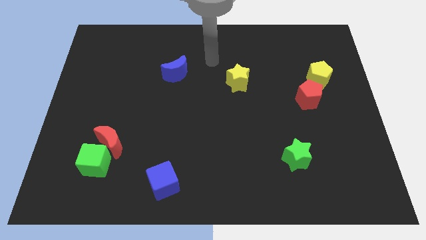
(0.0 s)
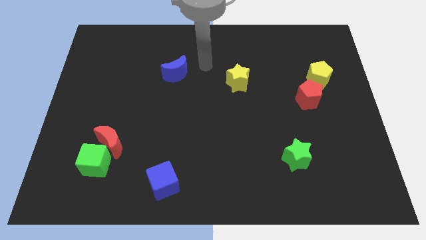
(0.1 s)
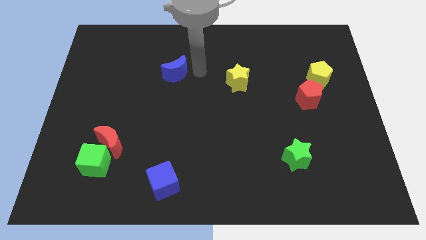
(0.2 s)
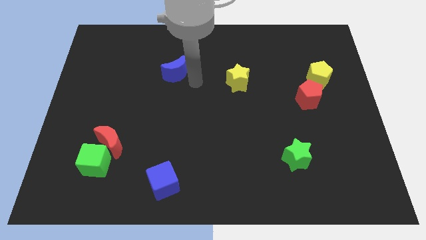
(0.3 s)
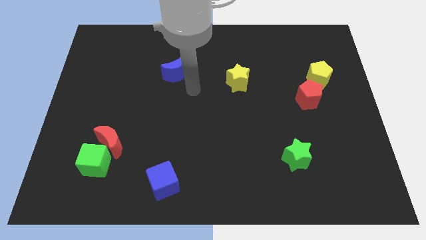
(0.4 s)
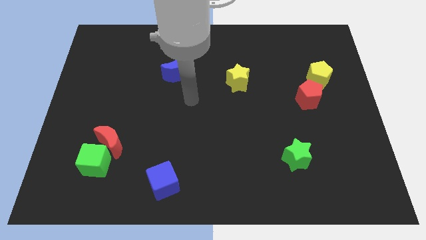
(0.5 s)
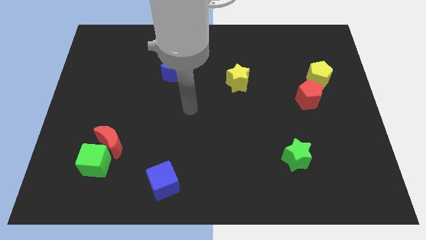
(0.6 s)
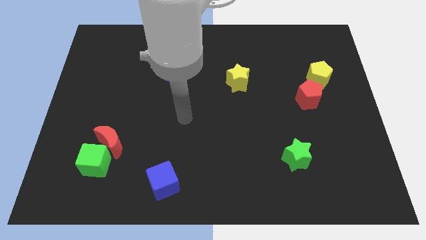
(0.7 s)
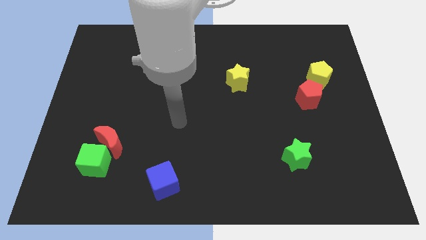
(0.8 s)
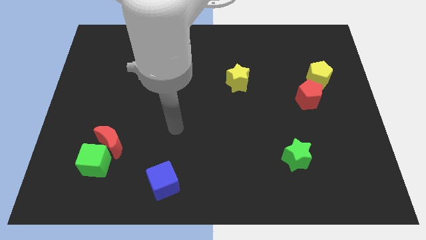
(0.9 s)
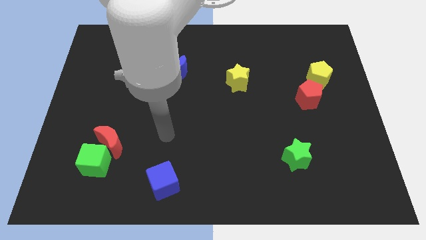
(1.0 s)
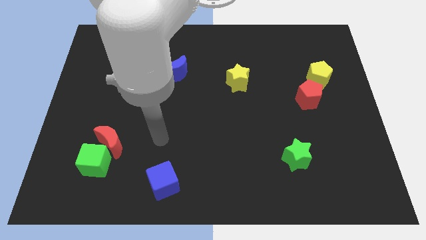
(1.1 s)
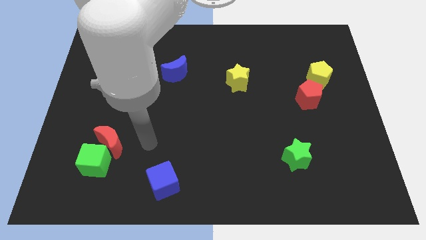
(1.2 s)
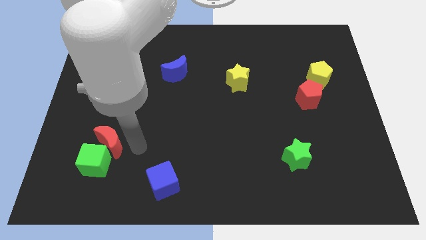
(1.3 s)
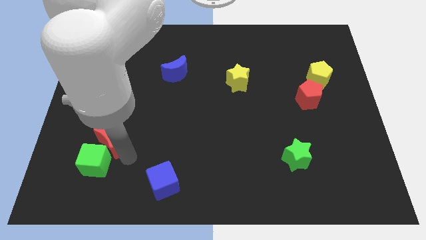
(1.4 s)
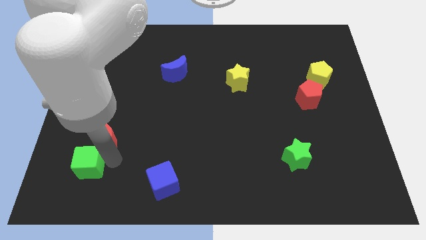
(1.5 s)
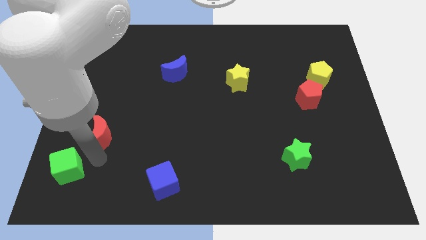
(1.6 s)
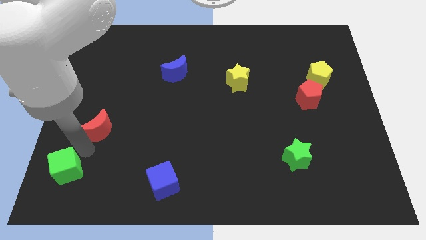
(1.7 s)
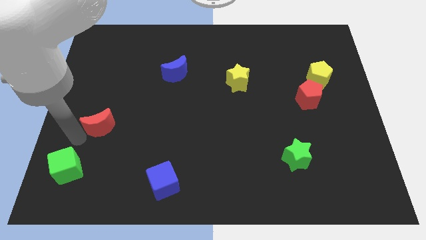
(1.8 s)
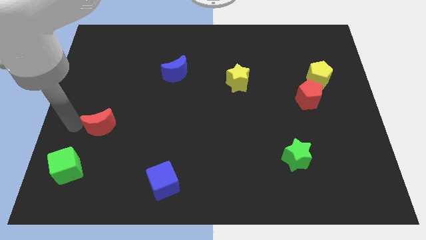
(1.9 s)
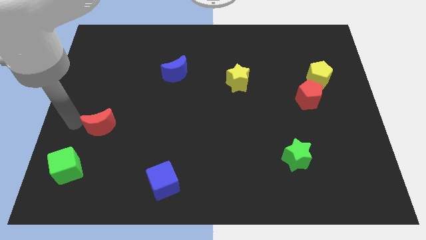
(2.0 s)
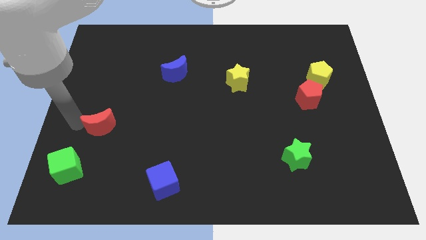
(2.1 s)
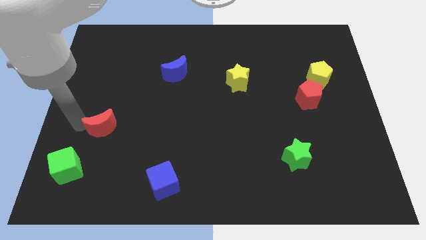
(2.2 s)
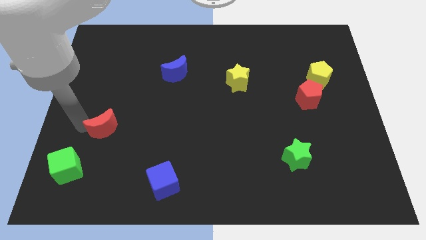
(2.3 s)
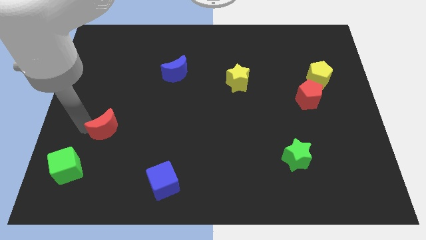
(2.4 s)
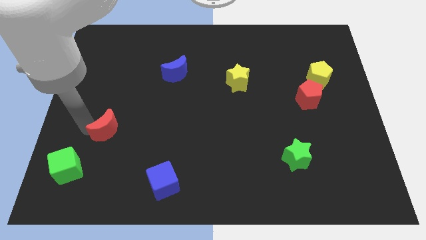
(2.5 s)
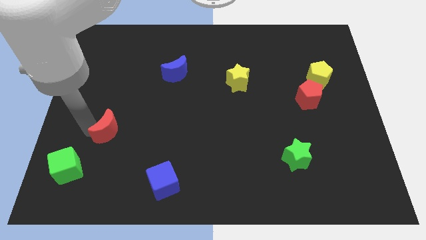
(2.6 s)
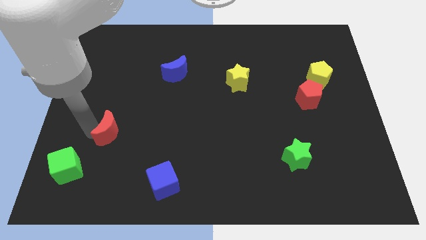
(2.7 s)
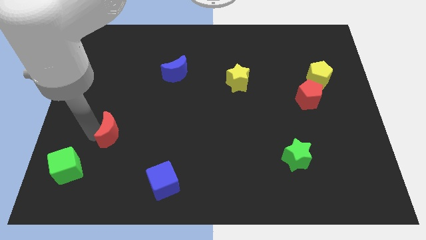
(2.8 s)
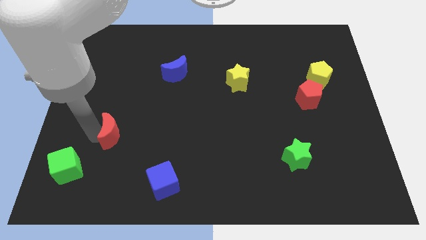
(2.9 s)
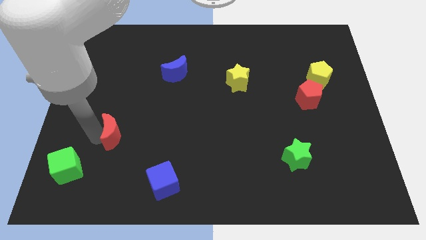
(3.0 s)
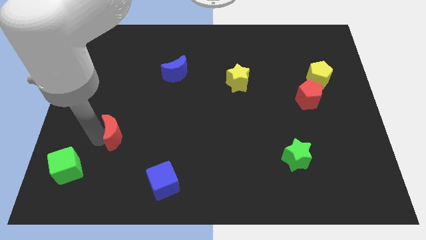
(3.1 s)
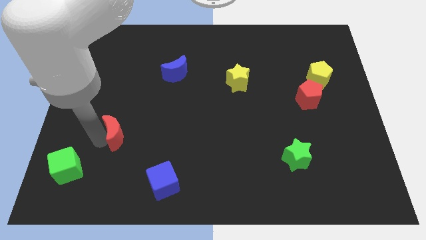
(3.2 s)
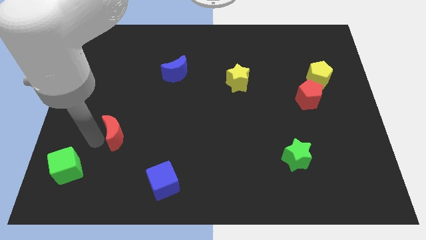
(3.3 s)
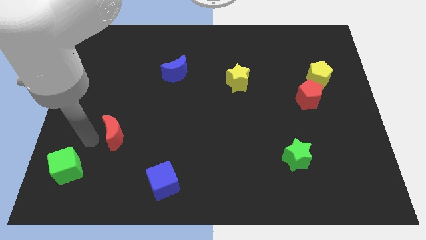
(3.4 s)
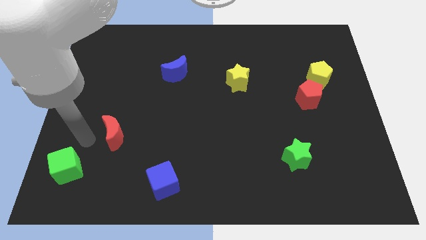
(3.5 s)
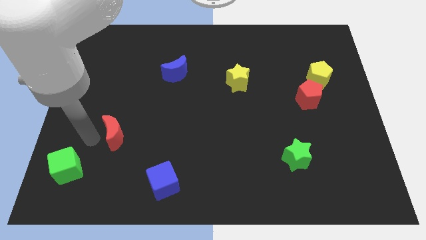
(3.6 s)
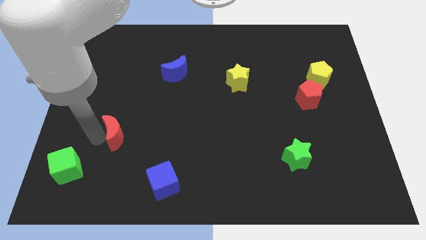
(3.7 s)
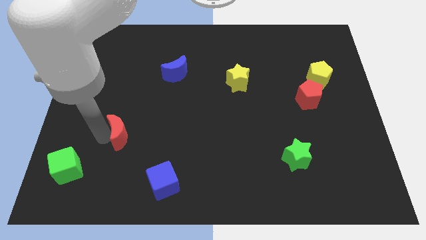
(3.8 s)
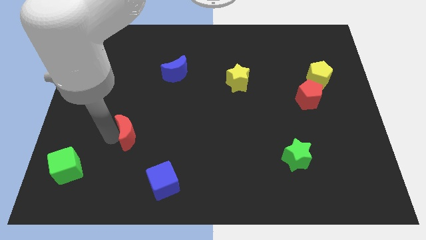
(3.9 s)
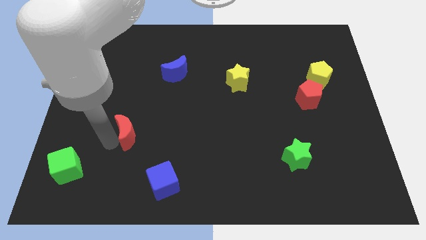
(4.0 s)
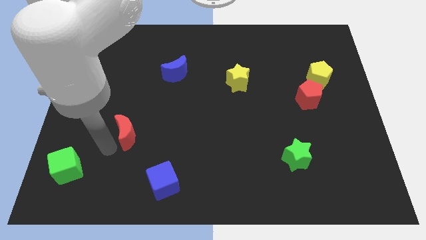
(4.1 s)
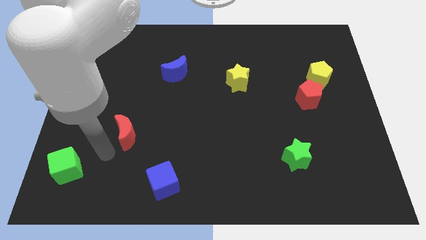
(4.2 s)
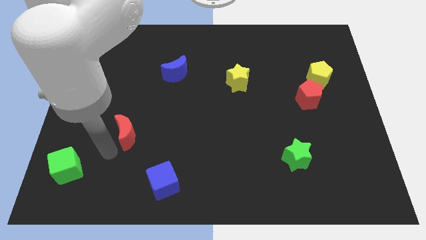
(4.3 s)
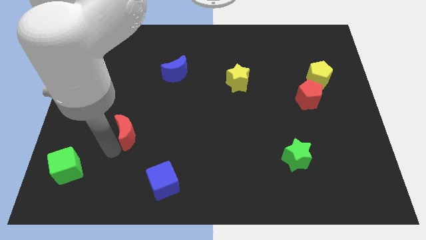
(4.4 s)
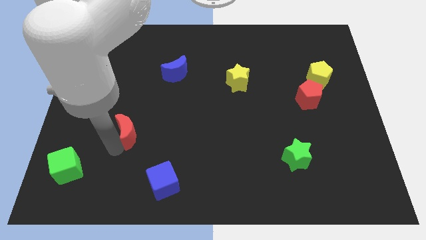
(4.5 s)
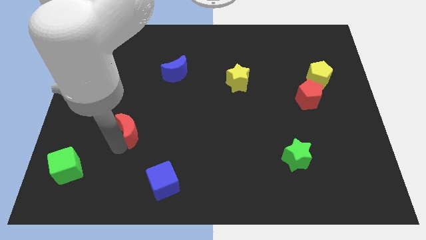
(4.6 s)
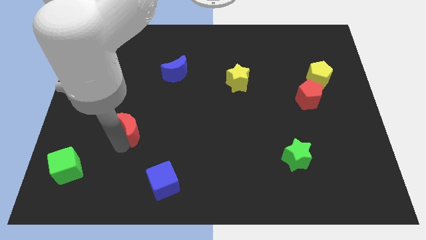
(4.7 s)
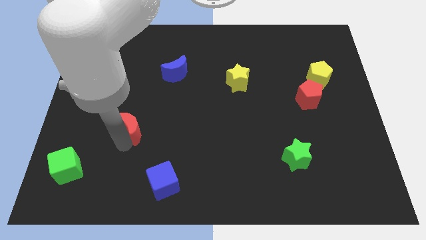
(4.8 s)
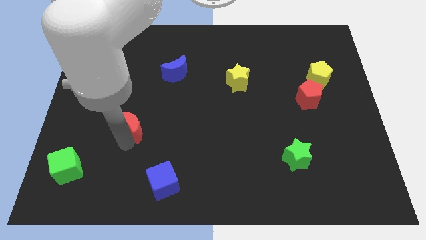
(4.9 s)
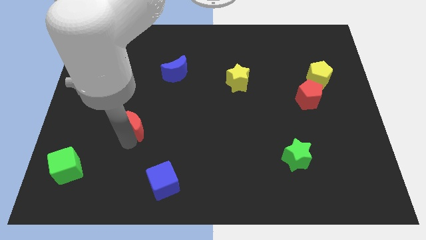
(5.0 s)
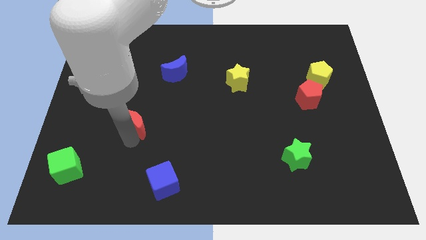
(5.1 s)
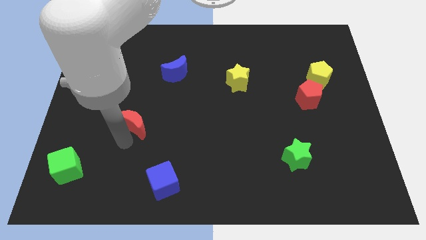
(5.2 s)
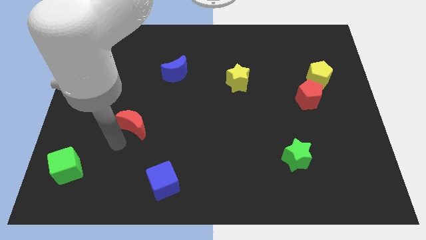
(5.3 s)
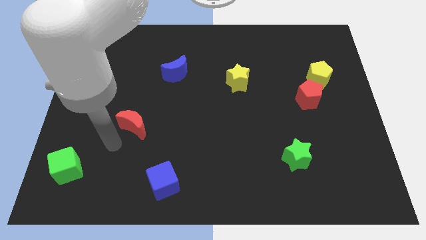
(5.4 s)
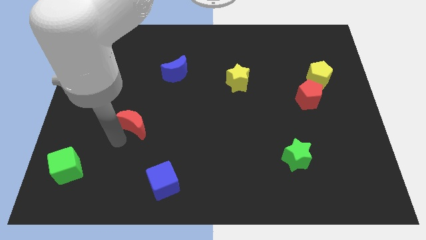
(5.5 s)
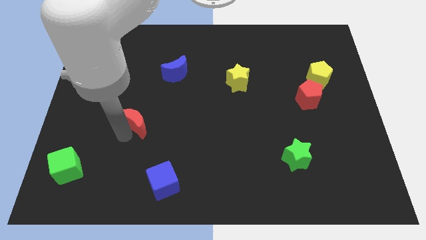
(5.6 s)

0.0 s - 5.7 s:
slightly move the red moon upwards and right

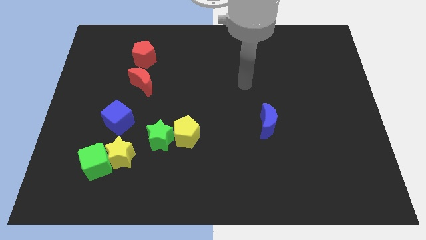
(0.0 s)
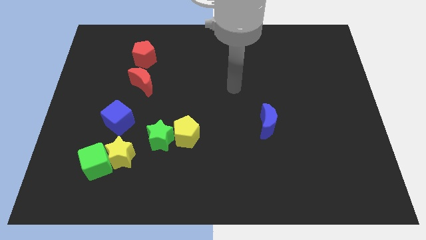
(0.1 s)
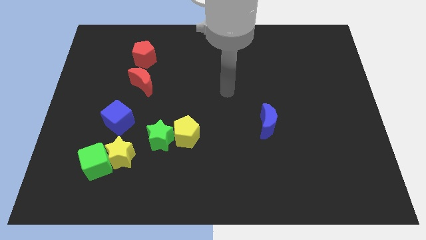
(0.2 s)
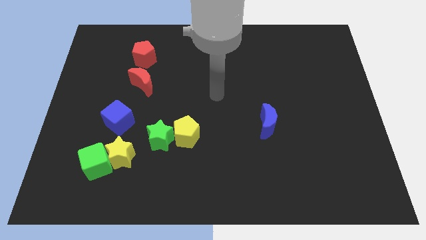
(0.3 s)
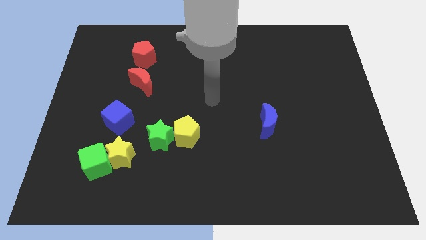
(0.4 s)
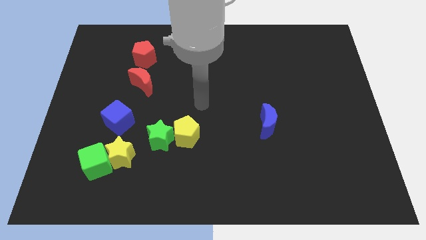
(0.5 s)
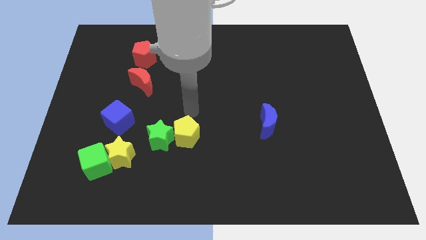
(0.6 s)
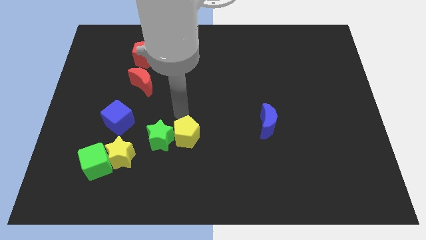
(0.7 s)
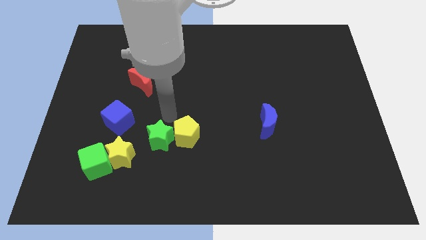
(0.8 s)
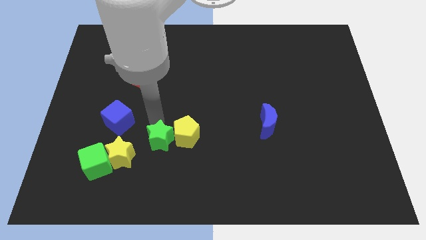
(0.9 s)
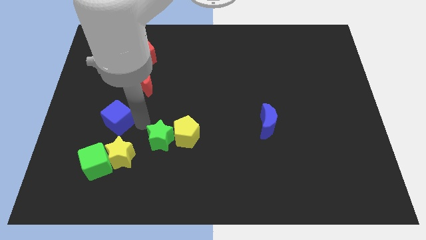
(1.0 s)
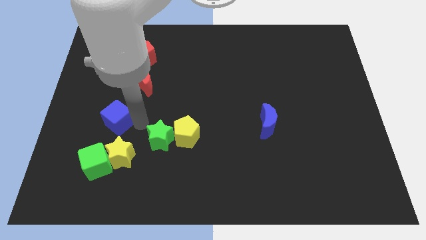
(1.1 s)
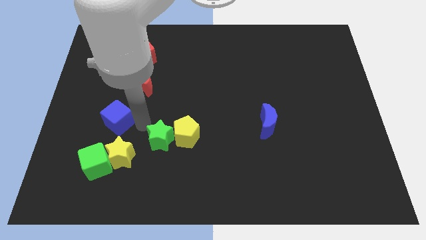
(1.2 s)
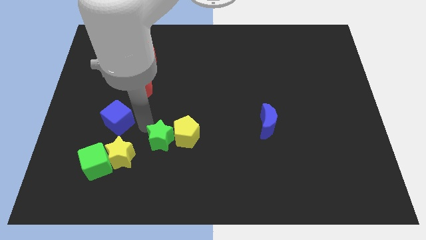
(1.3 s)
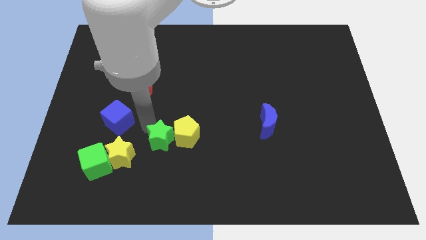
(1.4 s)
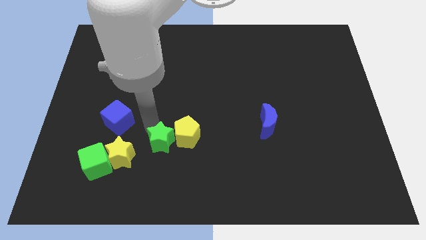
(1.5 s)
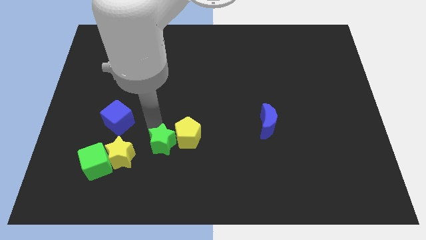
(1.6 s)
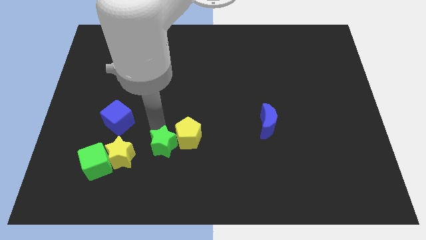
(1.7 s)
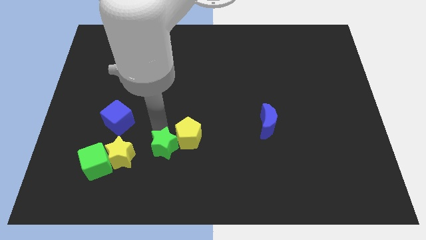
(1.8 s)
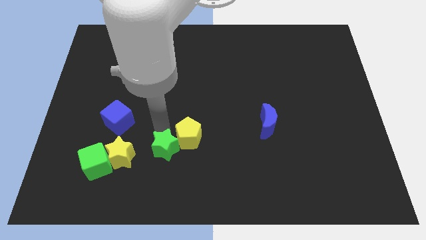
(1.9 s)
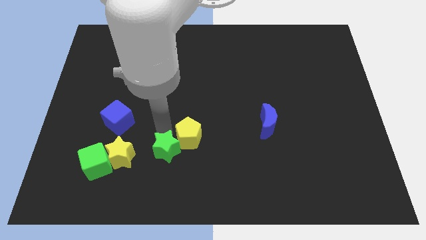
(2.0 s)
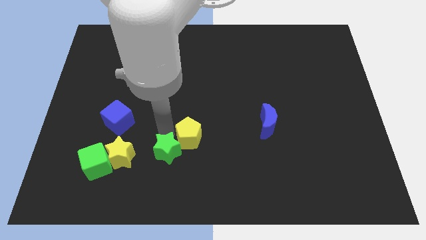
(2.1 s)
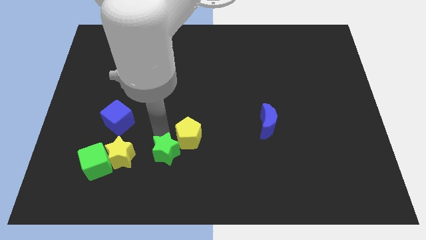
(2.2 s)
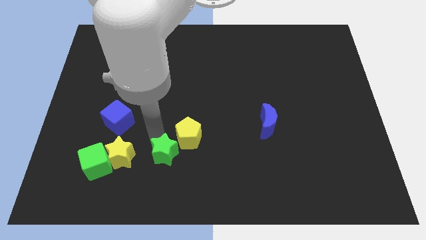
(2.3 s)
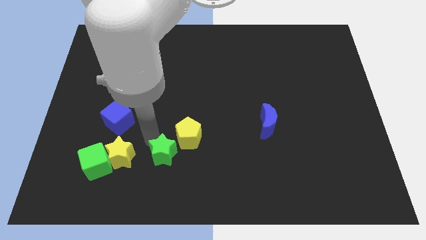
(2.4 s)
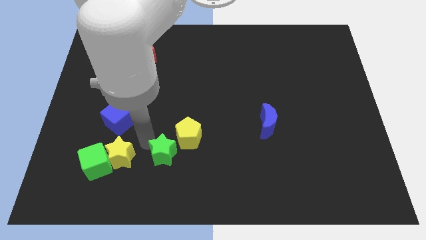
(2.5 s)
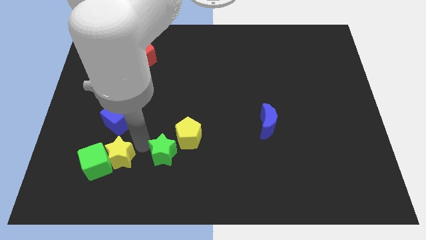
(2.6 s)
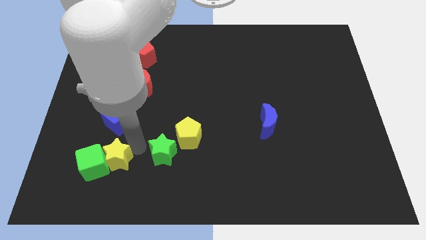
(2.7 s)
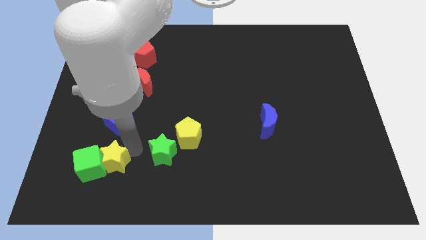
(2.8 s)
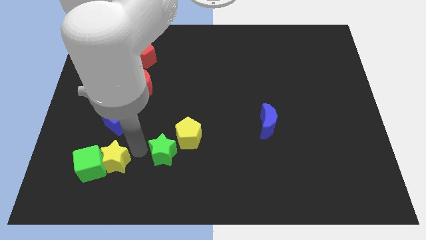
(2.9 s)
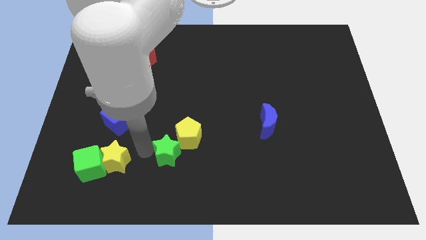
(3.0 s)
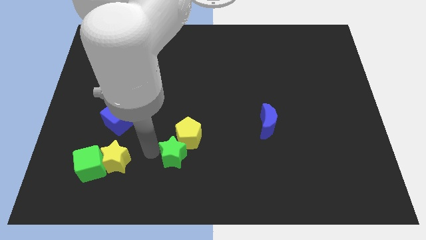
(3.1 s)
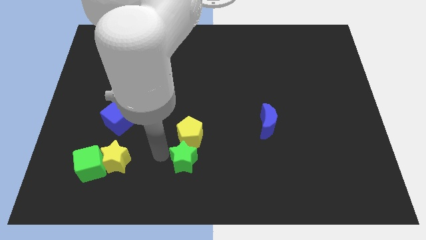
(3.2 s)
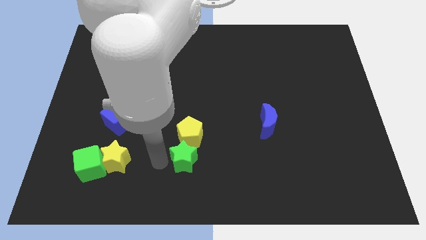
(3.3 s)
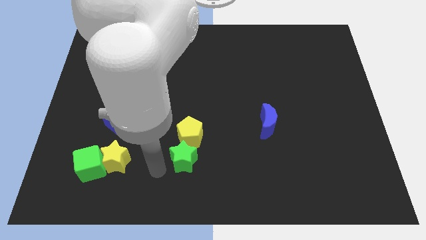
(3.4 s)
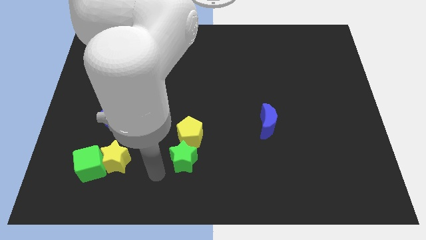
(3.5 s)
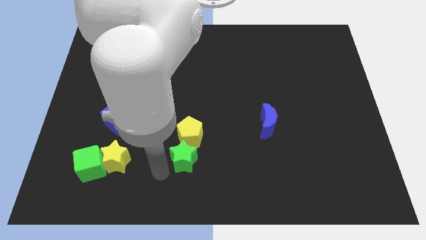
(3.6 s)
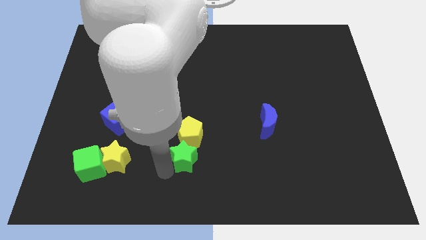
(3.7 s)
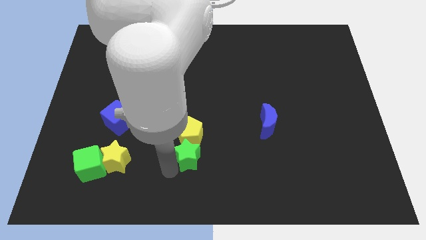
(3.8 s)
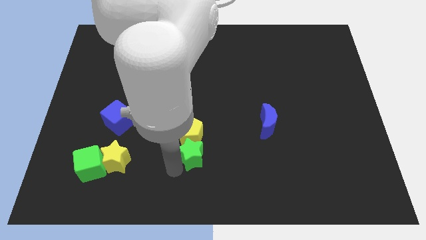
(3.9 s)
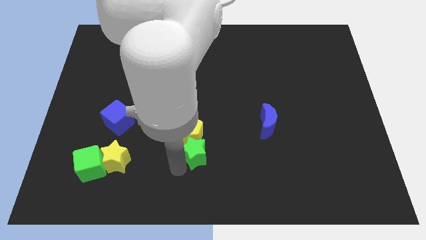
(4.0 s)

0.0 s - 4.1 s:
move the green star somewhat to the right
